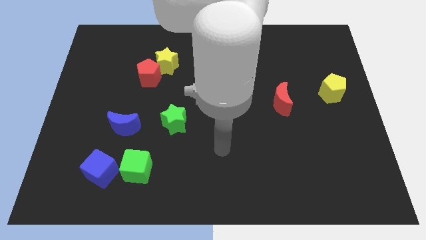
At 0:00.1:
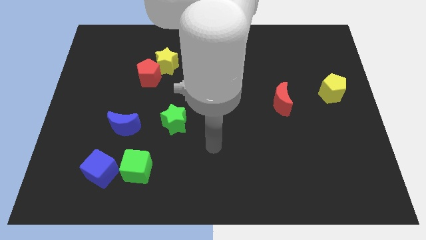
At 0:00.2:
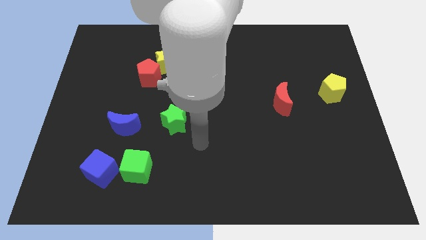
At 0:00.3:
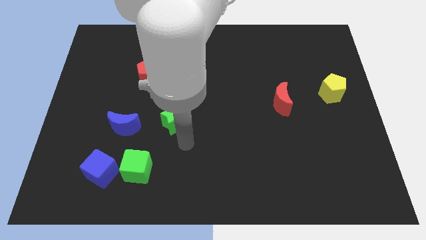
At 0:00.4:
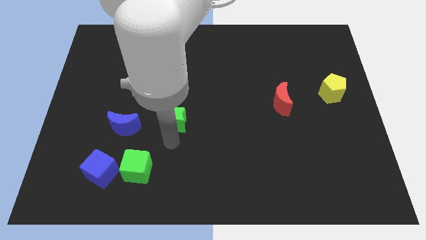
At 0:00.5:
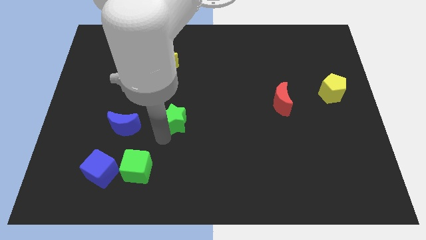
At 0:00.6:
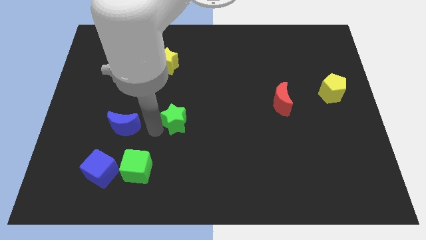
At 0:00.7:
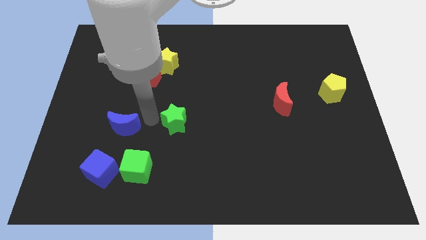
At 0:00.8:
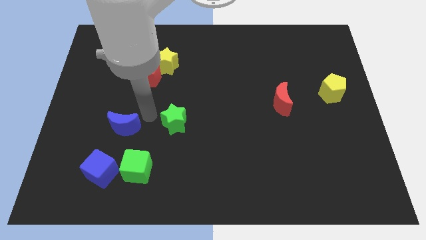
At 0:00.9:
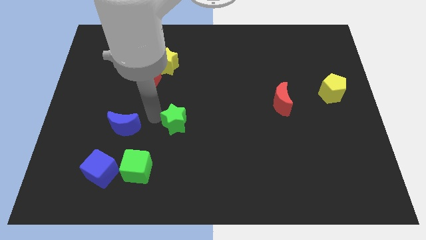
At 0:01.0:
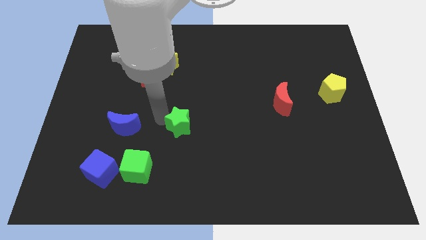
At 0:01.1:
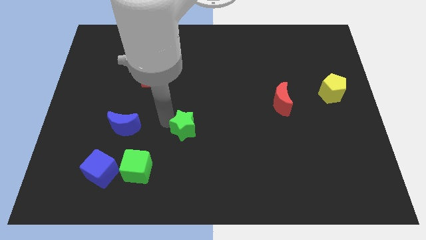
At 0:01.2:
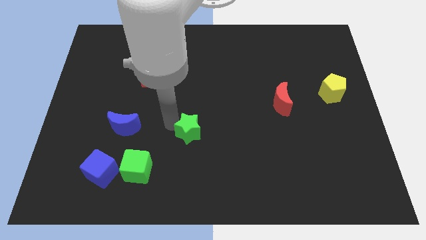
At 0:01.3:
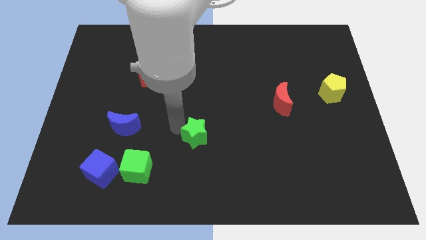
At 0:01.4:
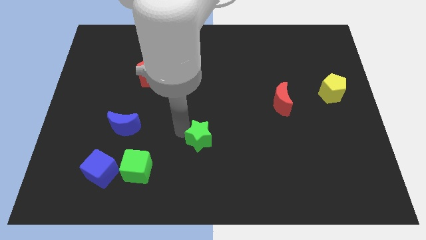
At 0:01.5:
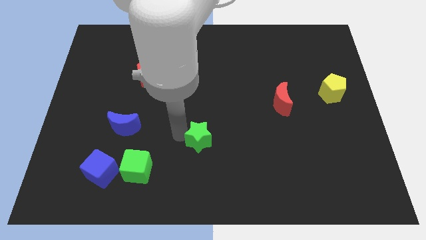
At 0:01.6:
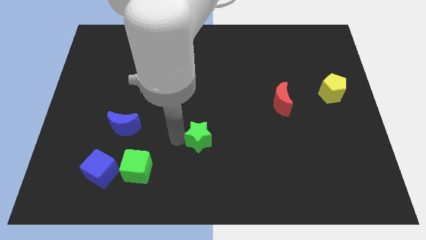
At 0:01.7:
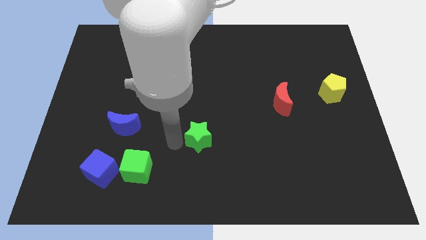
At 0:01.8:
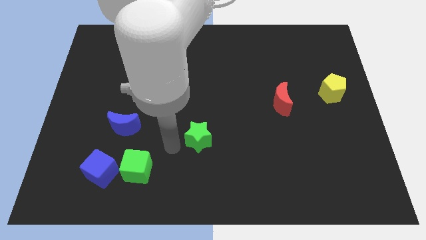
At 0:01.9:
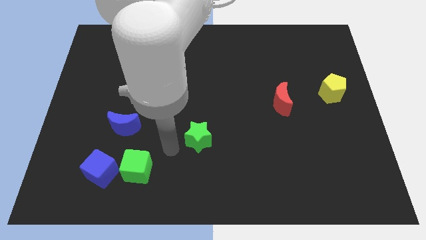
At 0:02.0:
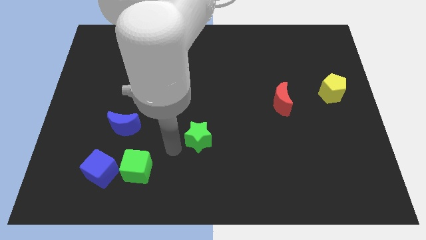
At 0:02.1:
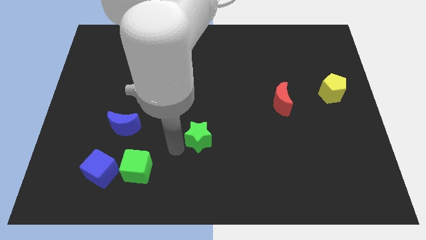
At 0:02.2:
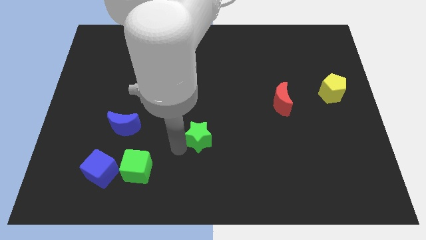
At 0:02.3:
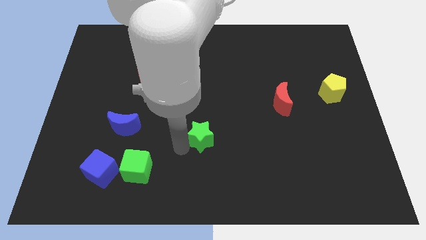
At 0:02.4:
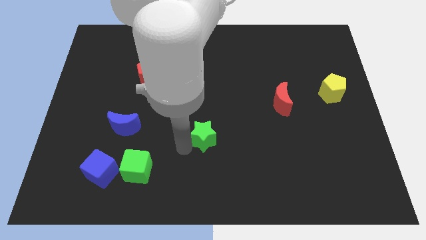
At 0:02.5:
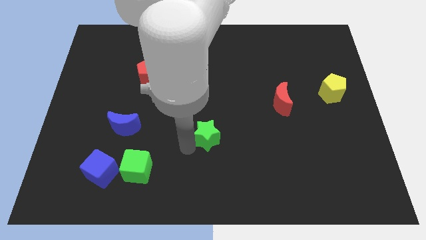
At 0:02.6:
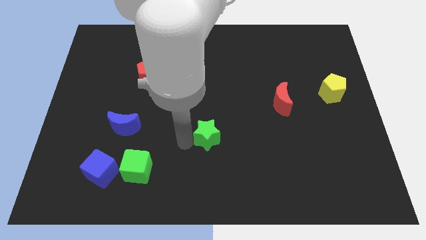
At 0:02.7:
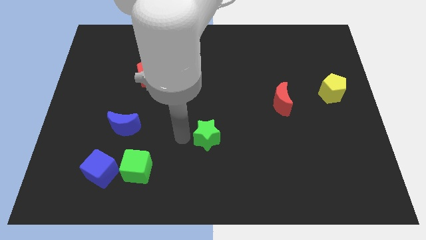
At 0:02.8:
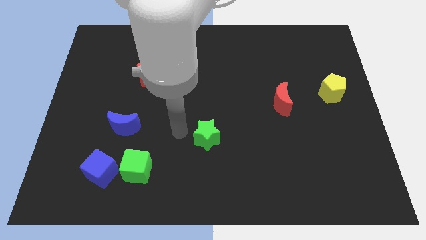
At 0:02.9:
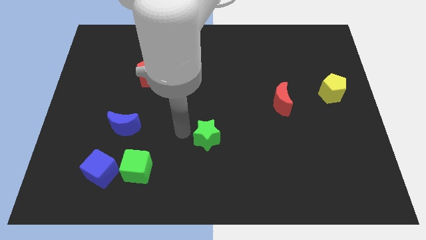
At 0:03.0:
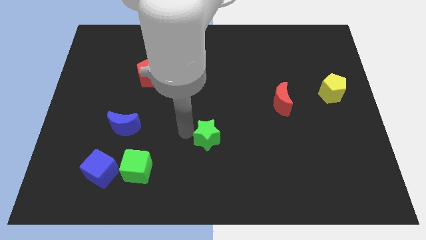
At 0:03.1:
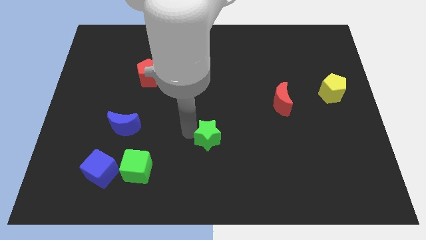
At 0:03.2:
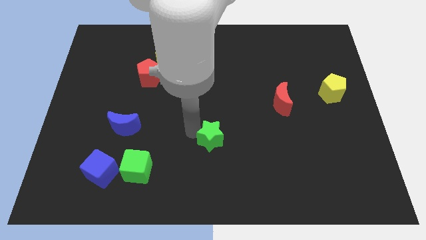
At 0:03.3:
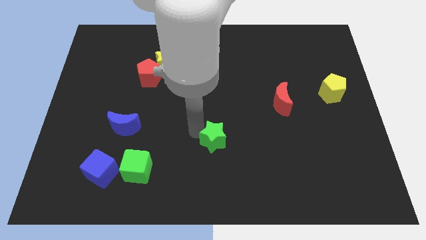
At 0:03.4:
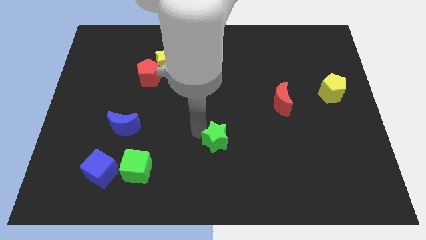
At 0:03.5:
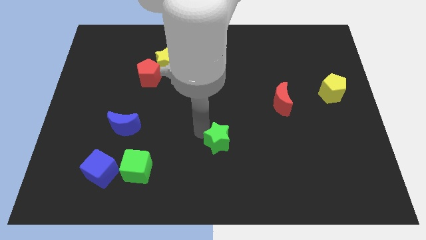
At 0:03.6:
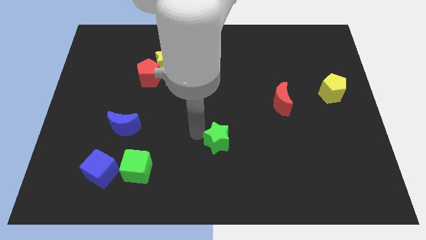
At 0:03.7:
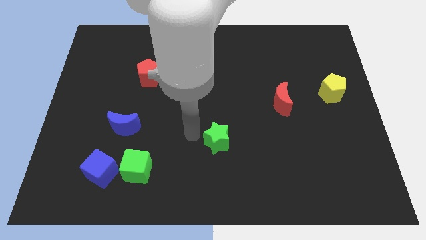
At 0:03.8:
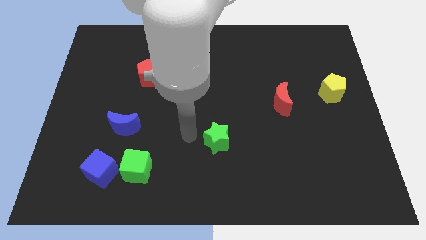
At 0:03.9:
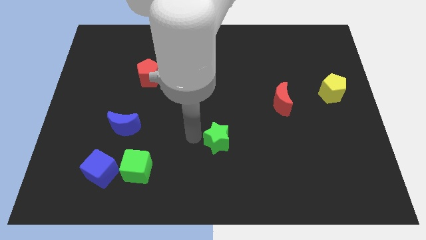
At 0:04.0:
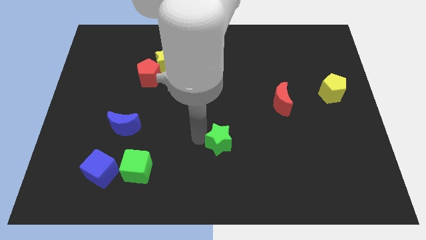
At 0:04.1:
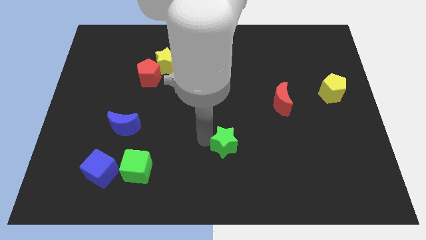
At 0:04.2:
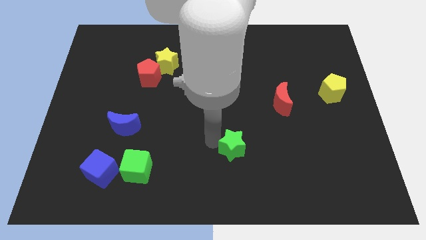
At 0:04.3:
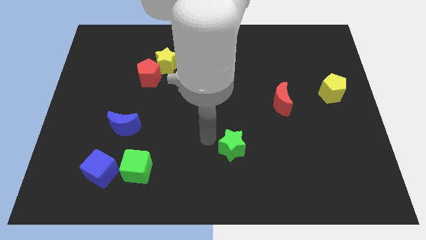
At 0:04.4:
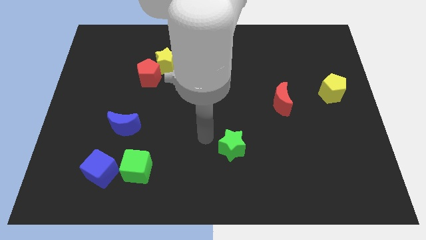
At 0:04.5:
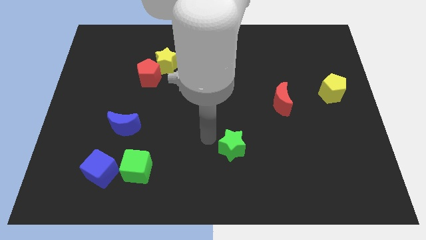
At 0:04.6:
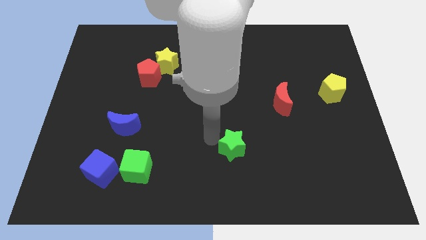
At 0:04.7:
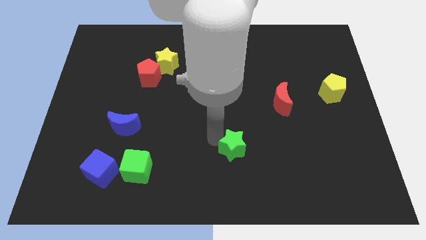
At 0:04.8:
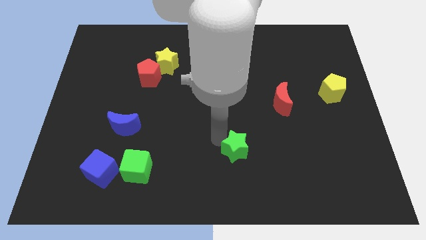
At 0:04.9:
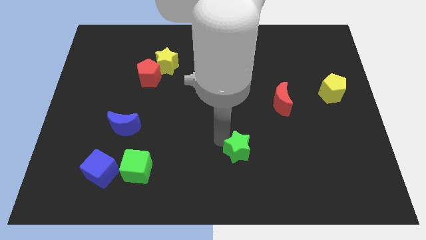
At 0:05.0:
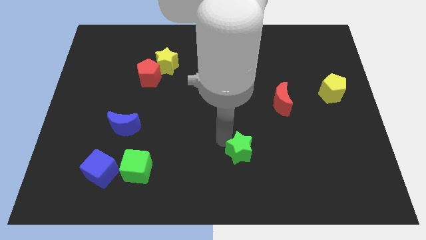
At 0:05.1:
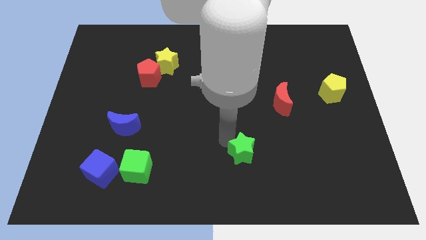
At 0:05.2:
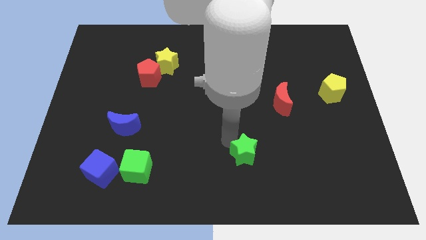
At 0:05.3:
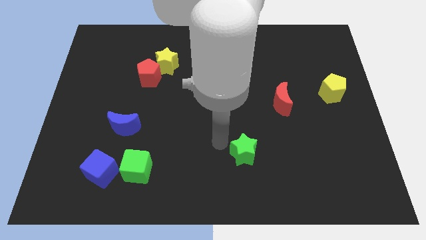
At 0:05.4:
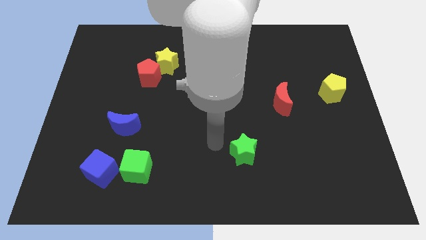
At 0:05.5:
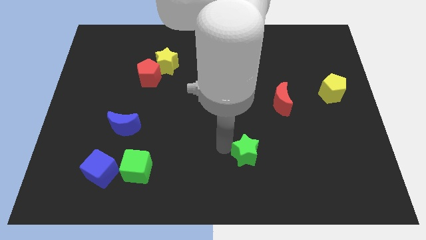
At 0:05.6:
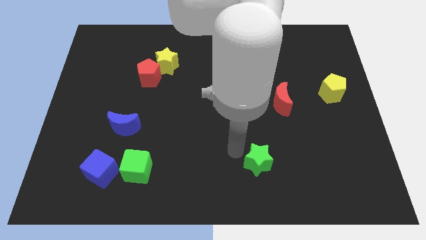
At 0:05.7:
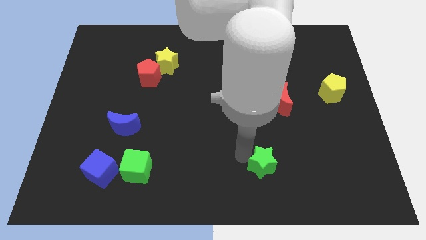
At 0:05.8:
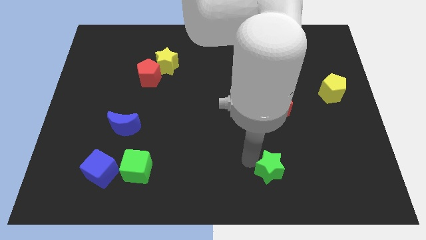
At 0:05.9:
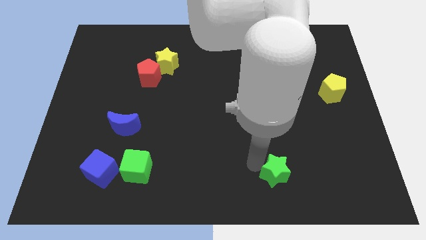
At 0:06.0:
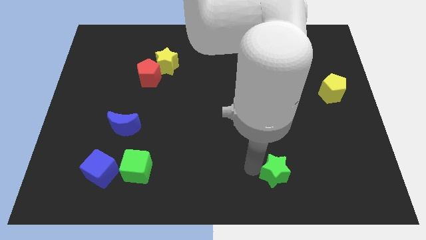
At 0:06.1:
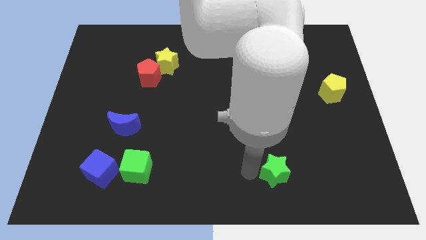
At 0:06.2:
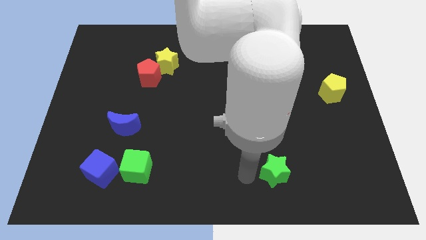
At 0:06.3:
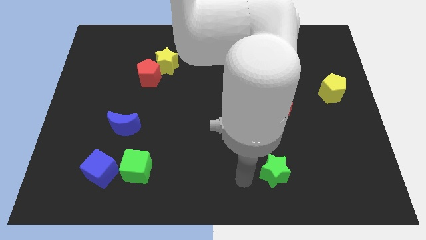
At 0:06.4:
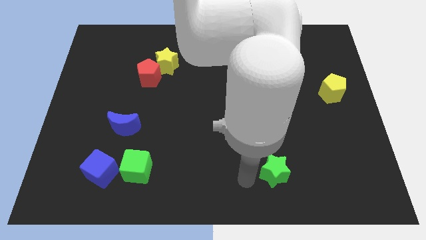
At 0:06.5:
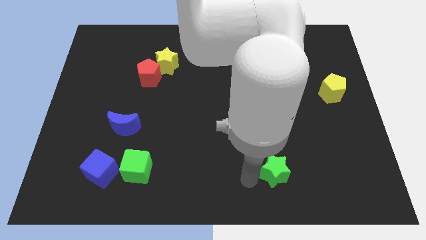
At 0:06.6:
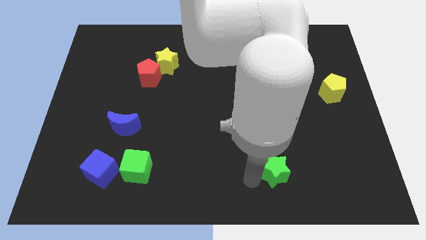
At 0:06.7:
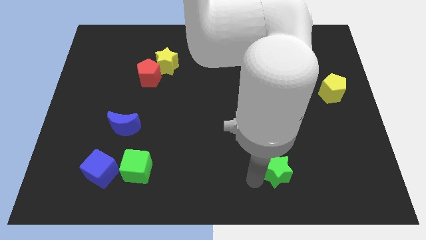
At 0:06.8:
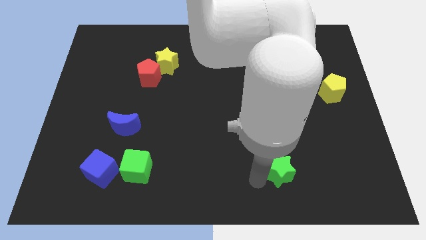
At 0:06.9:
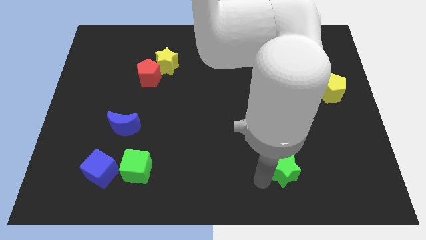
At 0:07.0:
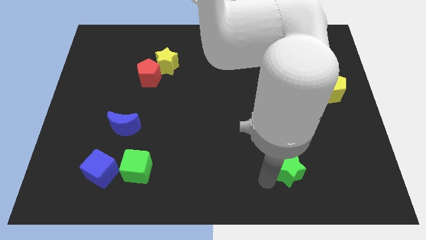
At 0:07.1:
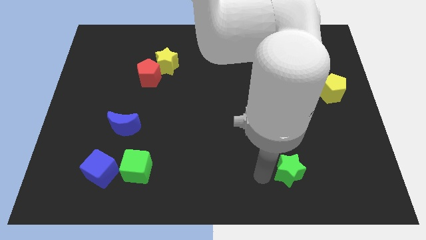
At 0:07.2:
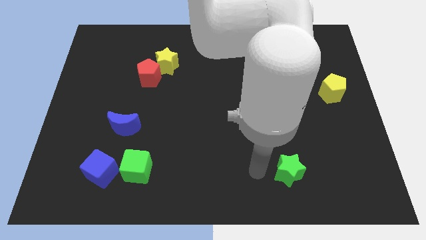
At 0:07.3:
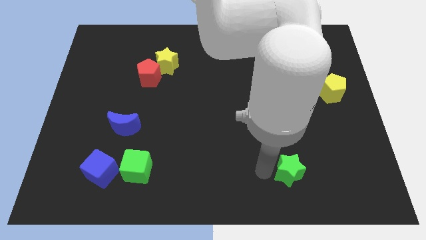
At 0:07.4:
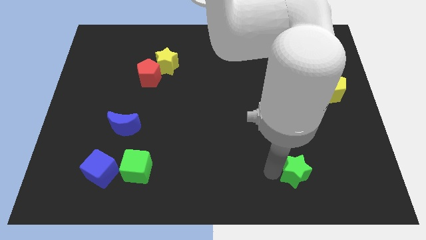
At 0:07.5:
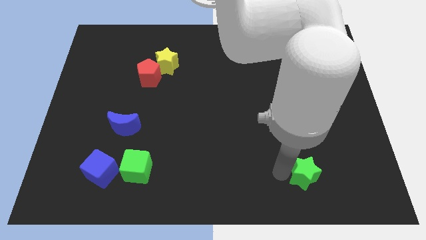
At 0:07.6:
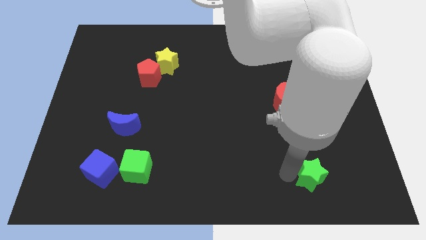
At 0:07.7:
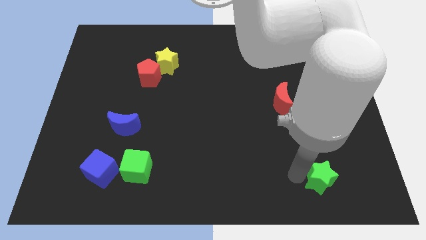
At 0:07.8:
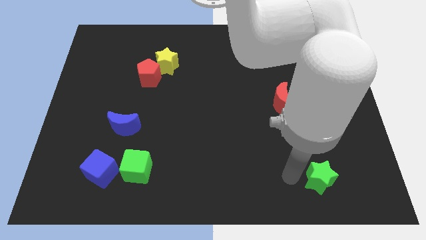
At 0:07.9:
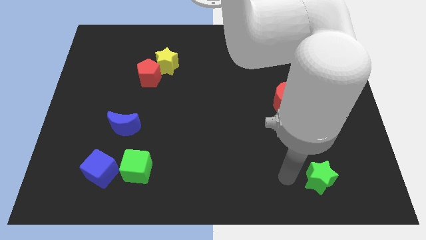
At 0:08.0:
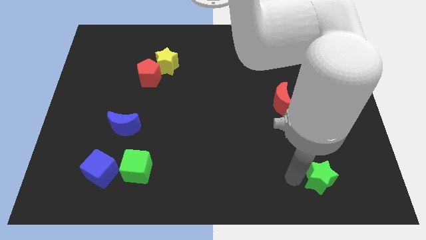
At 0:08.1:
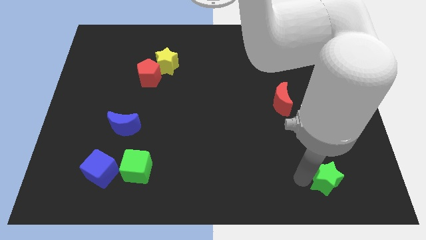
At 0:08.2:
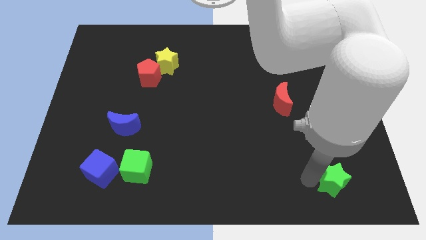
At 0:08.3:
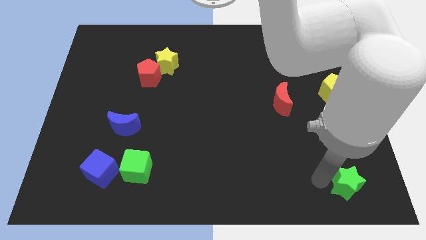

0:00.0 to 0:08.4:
move the green star to the lower right corner
